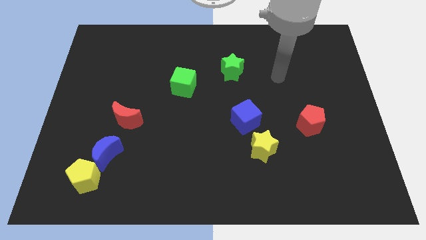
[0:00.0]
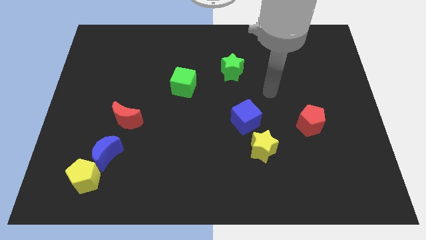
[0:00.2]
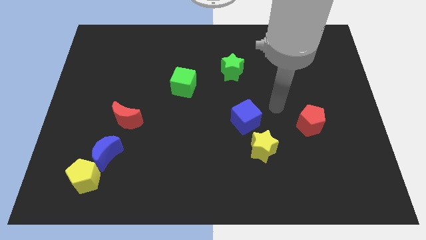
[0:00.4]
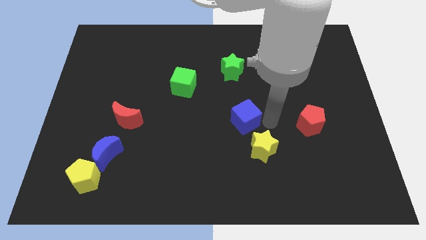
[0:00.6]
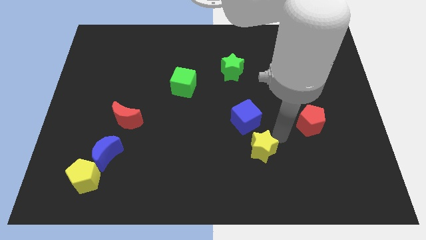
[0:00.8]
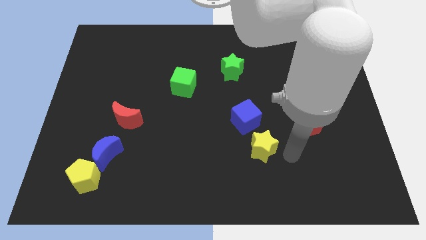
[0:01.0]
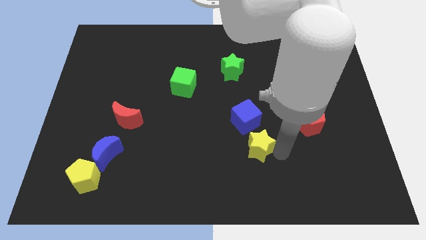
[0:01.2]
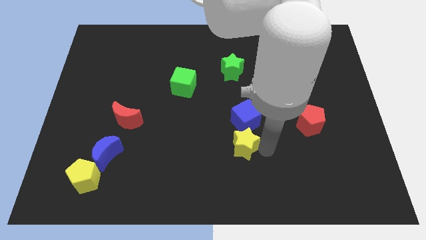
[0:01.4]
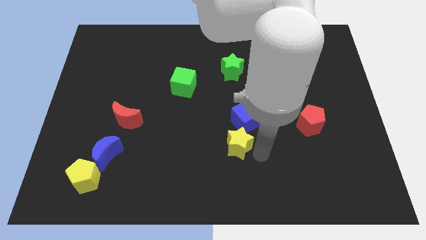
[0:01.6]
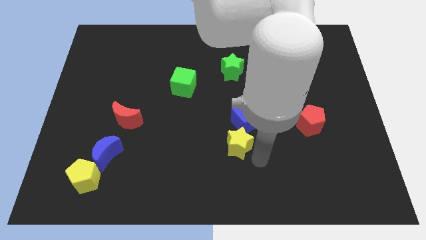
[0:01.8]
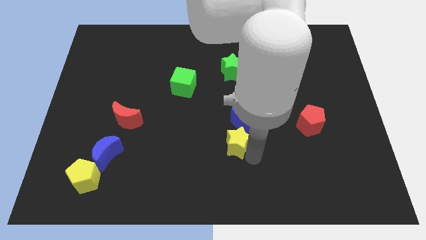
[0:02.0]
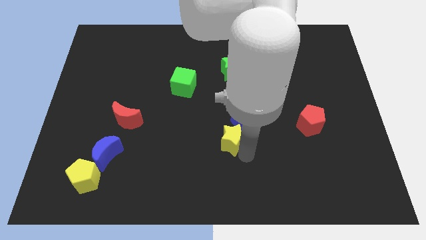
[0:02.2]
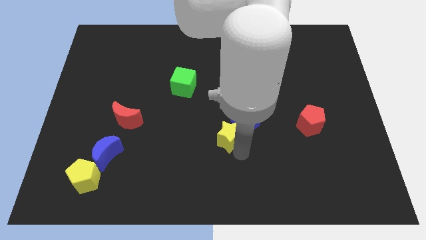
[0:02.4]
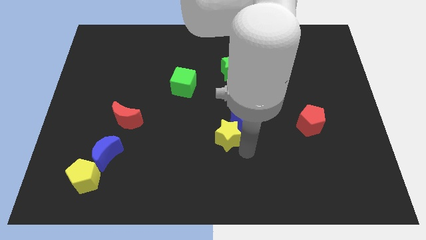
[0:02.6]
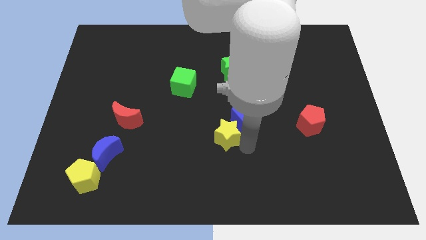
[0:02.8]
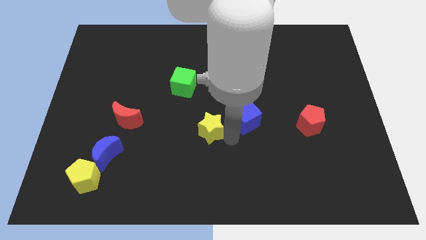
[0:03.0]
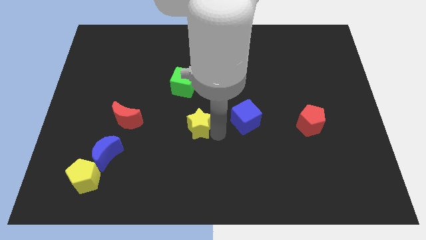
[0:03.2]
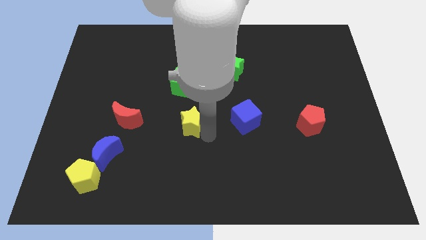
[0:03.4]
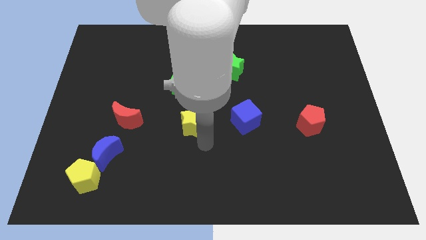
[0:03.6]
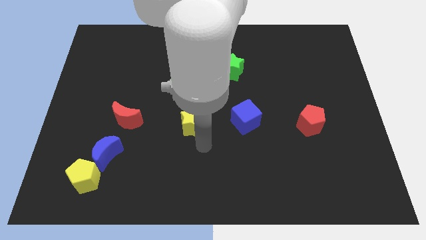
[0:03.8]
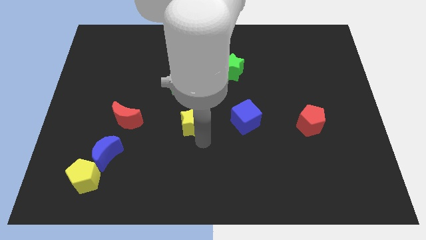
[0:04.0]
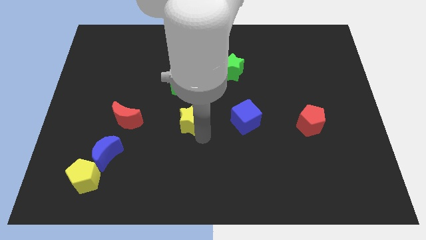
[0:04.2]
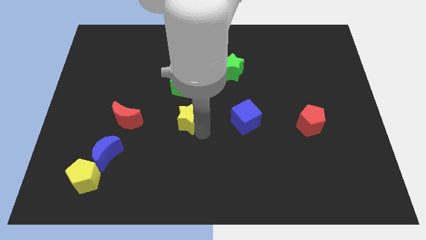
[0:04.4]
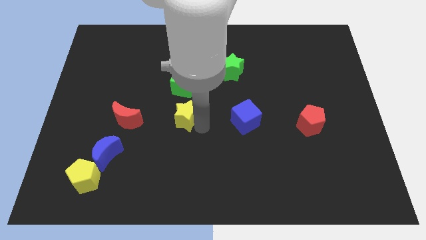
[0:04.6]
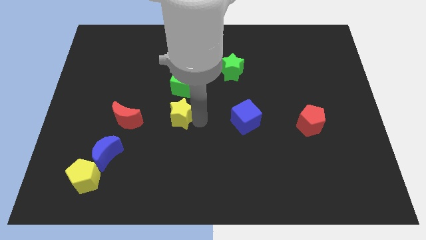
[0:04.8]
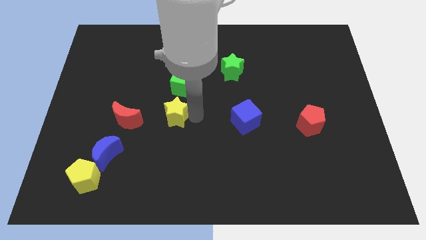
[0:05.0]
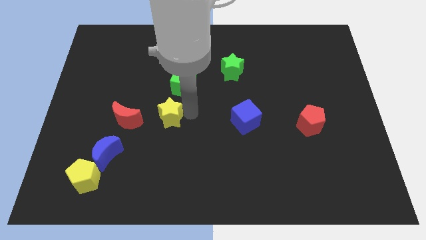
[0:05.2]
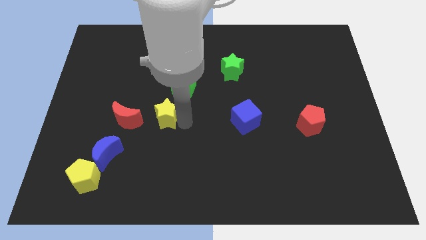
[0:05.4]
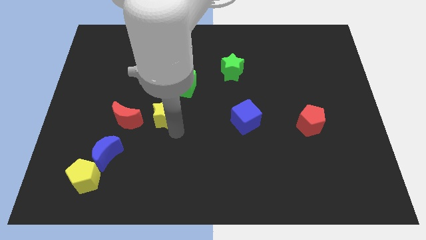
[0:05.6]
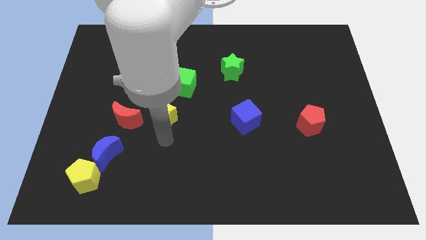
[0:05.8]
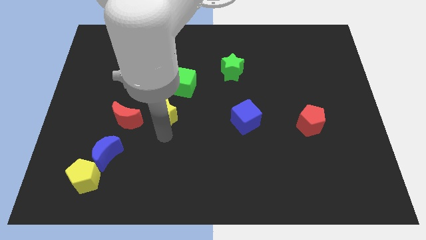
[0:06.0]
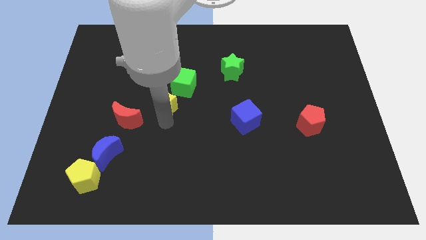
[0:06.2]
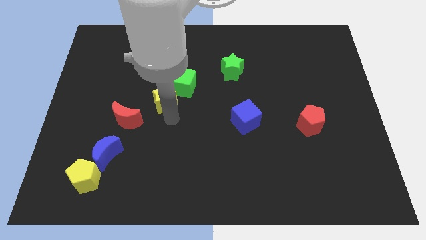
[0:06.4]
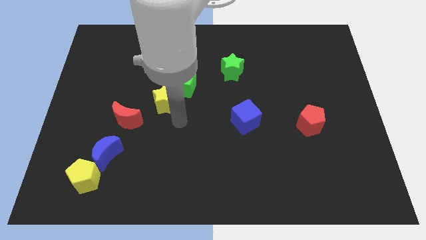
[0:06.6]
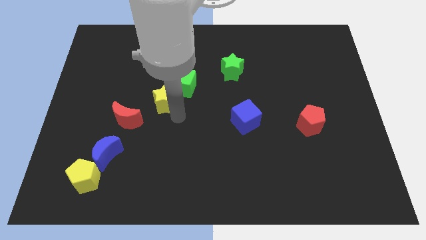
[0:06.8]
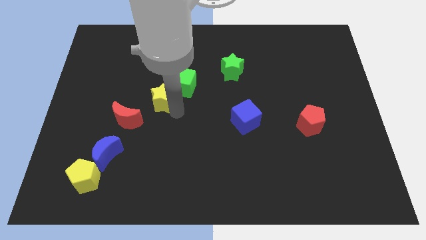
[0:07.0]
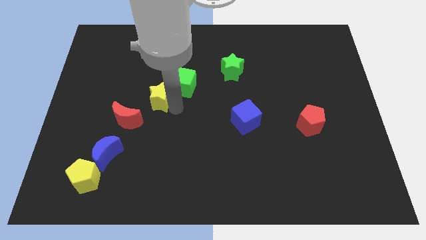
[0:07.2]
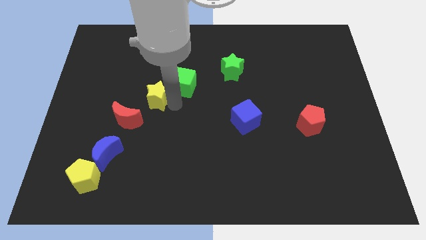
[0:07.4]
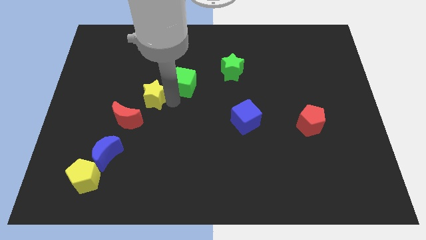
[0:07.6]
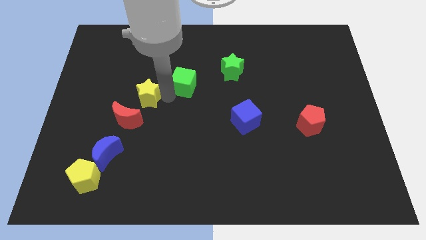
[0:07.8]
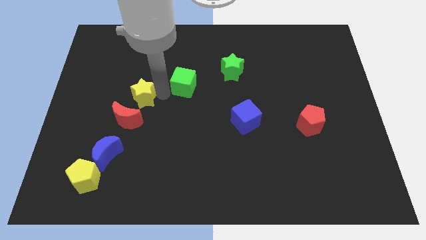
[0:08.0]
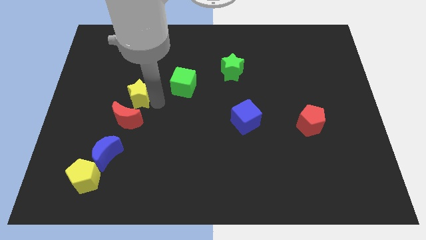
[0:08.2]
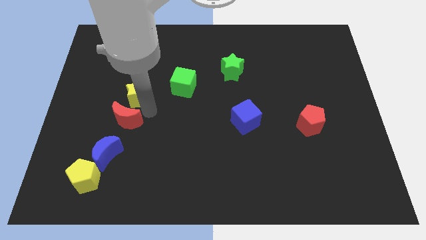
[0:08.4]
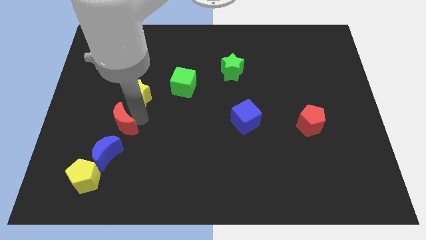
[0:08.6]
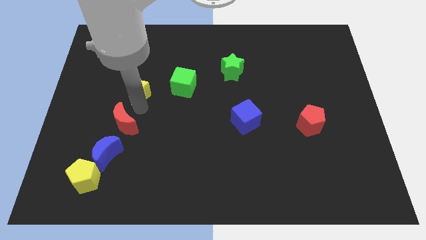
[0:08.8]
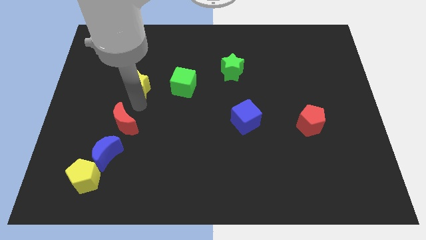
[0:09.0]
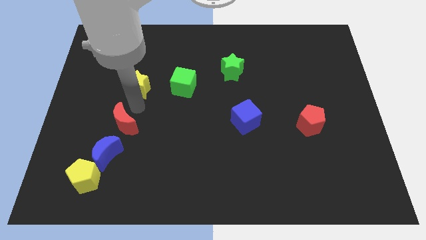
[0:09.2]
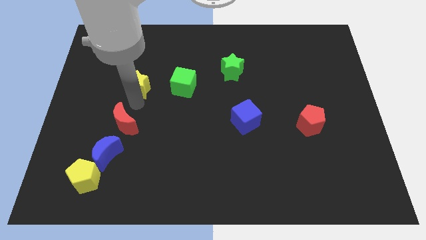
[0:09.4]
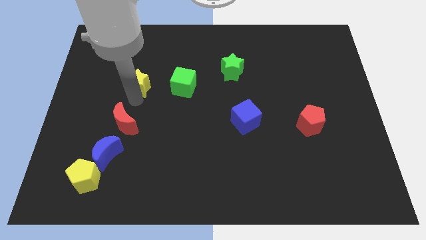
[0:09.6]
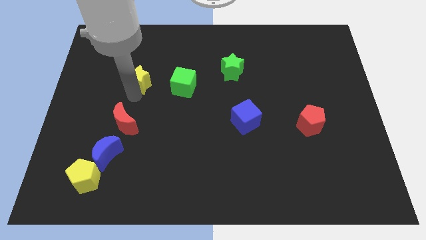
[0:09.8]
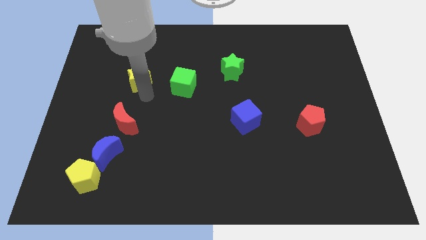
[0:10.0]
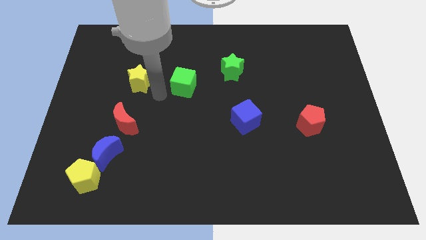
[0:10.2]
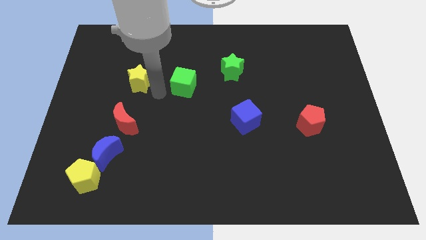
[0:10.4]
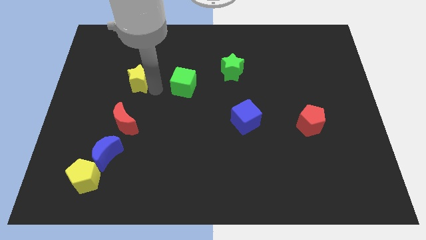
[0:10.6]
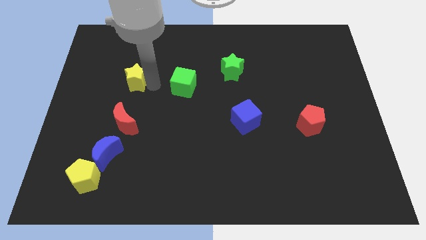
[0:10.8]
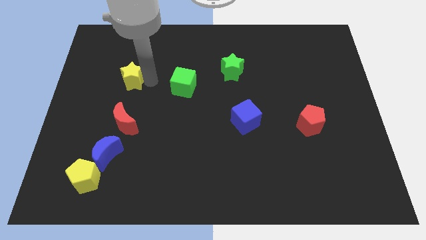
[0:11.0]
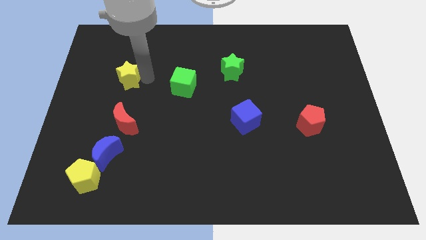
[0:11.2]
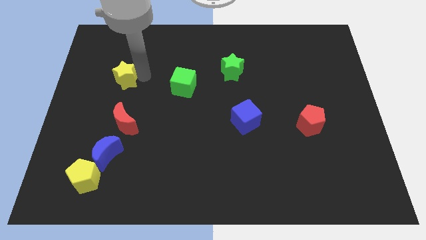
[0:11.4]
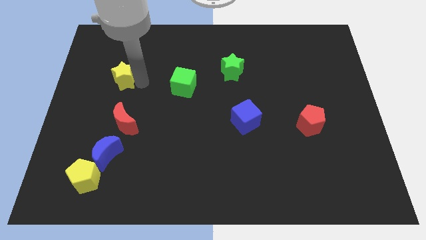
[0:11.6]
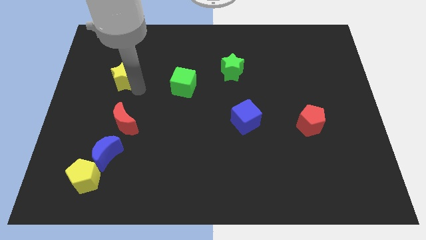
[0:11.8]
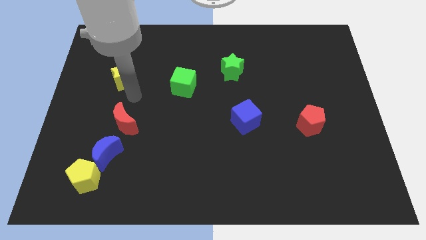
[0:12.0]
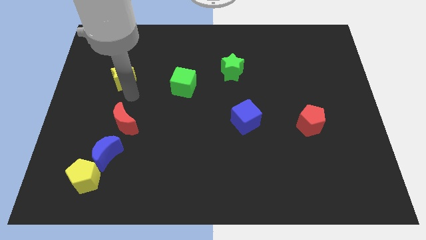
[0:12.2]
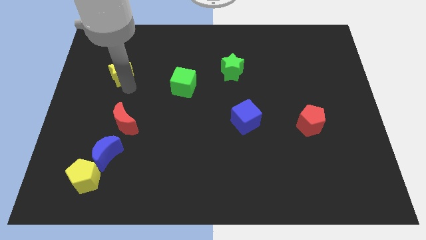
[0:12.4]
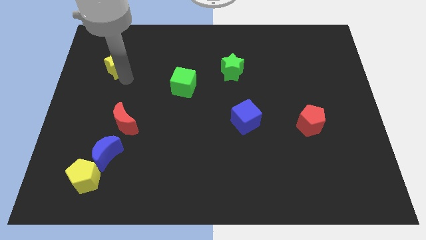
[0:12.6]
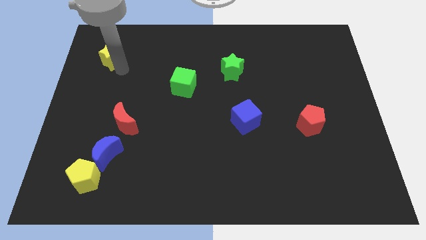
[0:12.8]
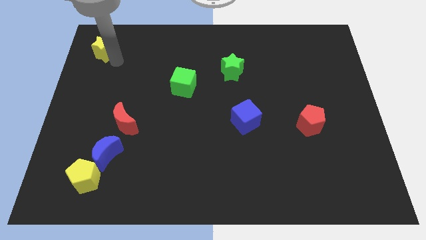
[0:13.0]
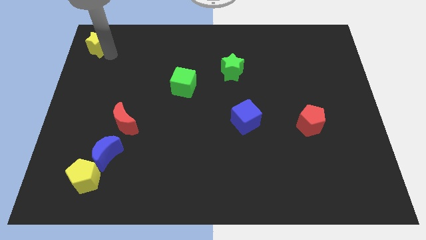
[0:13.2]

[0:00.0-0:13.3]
slide the yellow star to the upper left corner
